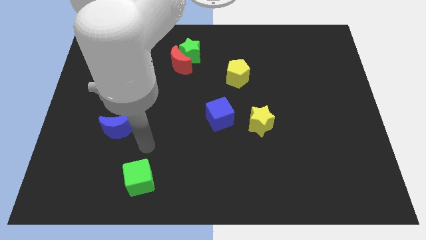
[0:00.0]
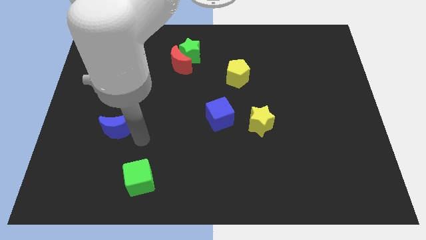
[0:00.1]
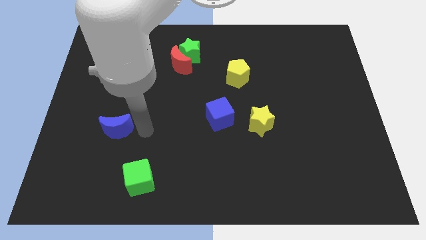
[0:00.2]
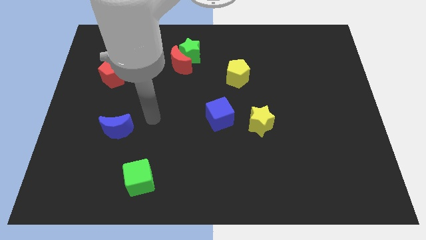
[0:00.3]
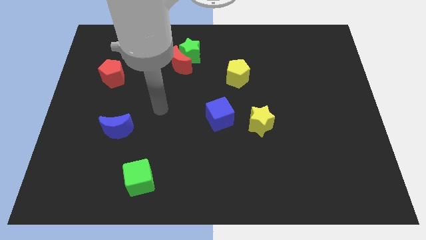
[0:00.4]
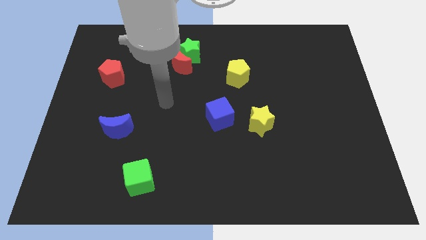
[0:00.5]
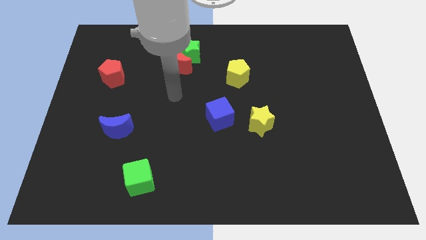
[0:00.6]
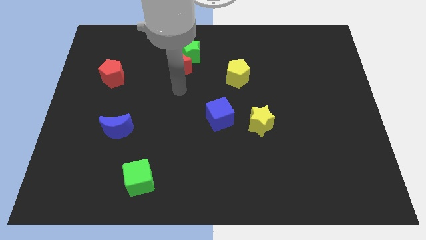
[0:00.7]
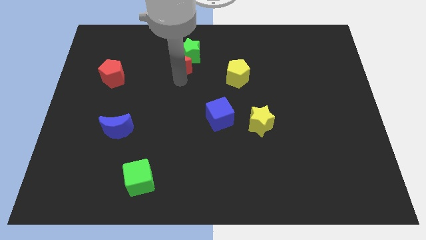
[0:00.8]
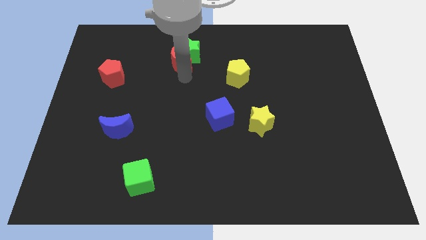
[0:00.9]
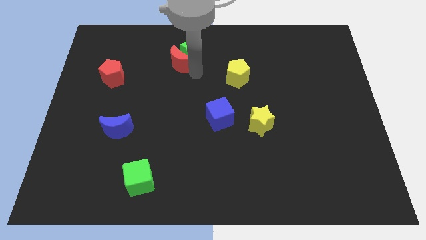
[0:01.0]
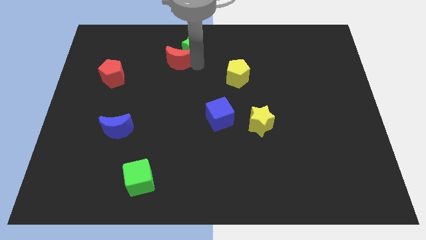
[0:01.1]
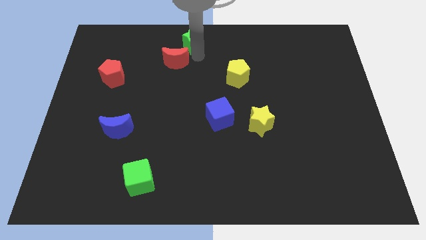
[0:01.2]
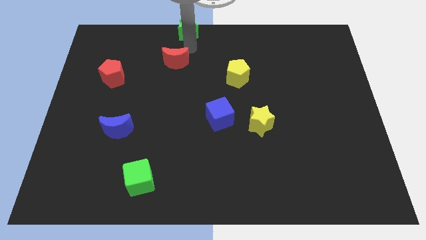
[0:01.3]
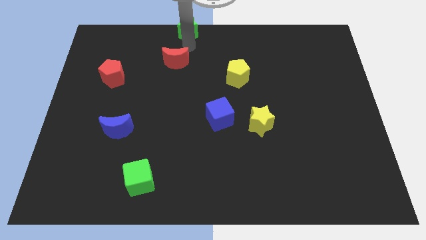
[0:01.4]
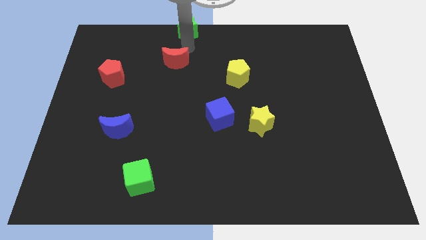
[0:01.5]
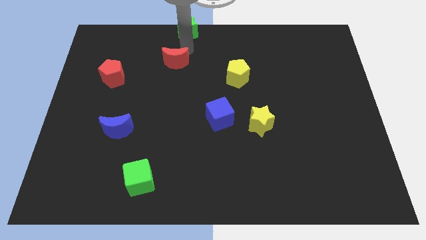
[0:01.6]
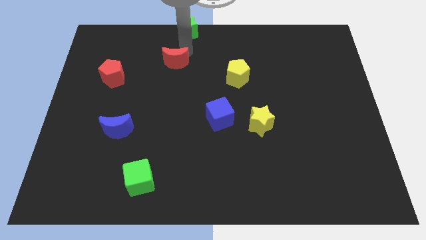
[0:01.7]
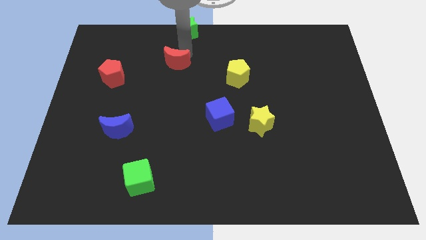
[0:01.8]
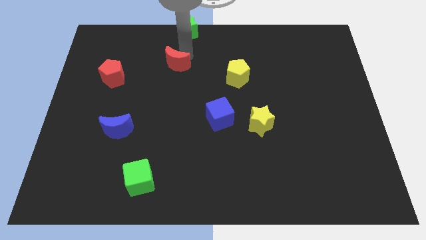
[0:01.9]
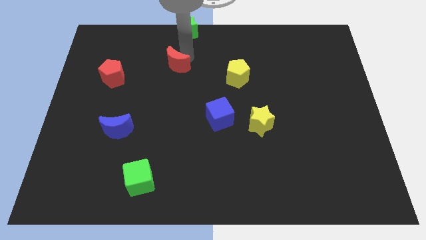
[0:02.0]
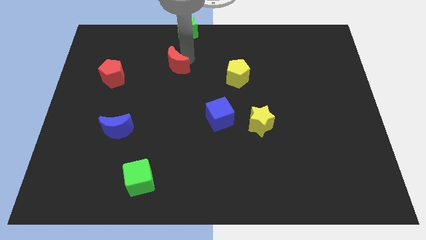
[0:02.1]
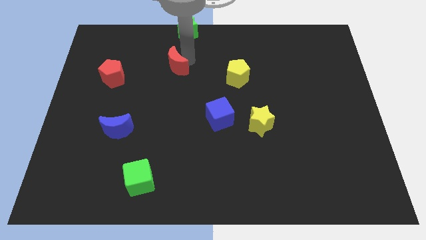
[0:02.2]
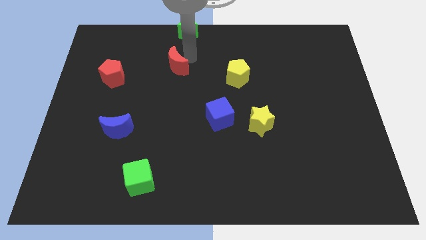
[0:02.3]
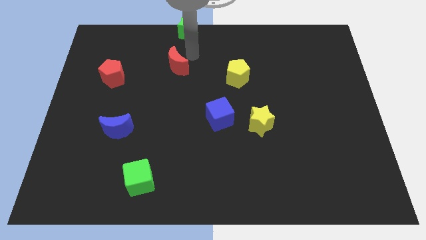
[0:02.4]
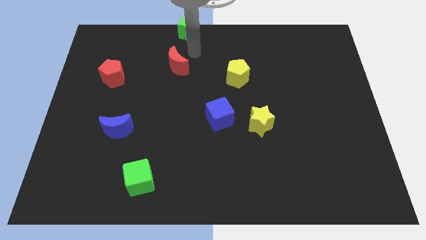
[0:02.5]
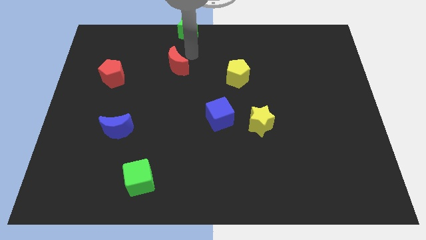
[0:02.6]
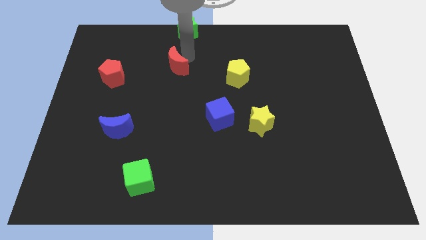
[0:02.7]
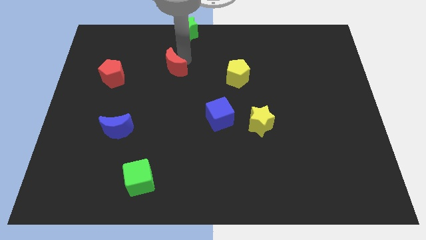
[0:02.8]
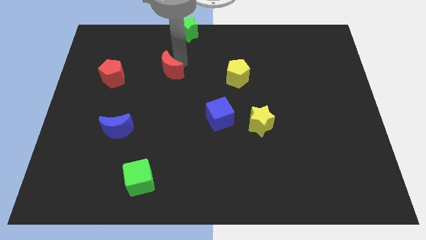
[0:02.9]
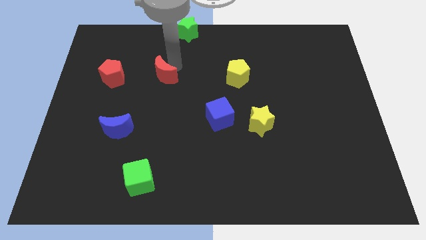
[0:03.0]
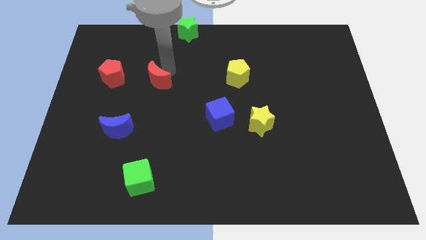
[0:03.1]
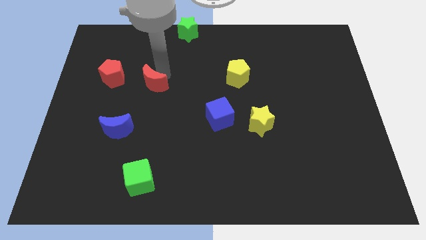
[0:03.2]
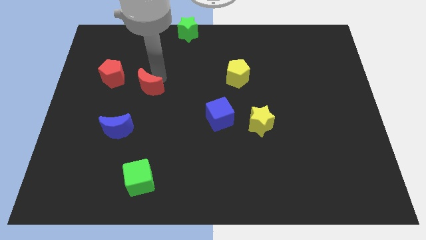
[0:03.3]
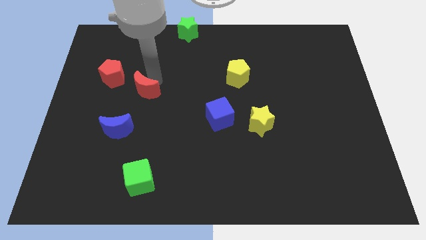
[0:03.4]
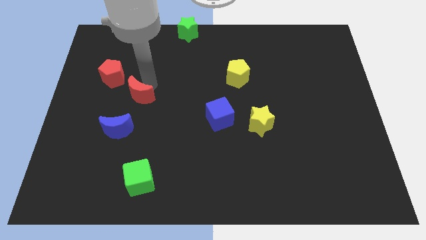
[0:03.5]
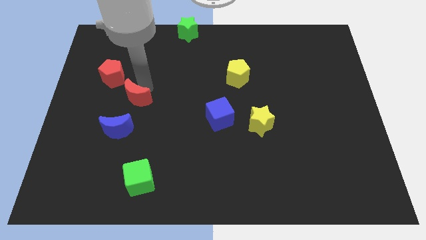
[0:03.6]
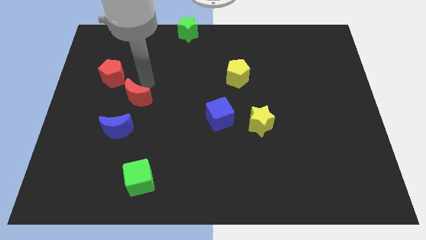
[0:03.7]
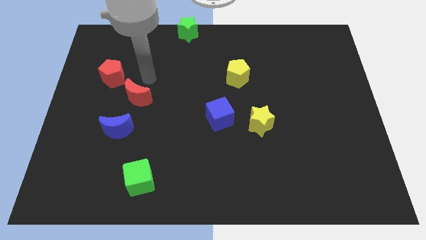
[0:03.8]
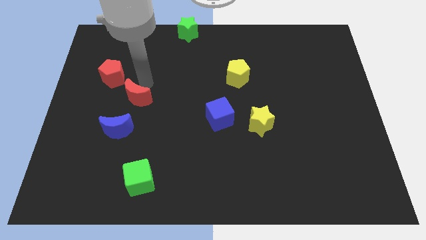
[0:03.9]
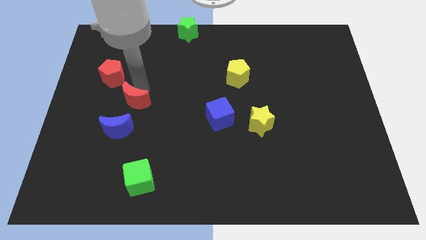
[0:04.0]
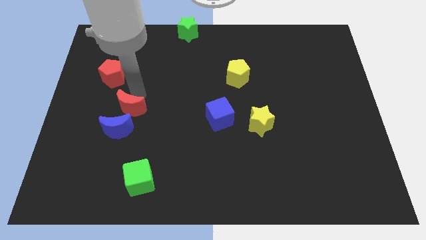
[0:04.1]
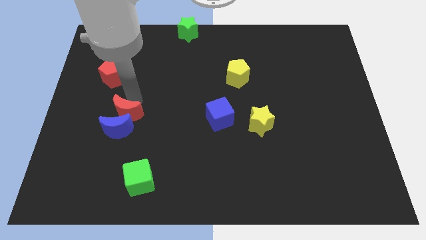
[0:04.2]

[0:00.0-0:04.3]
move the red moon towards the blue moon

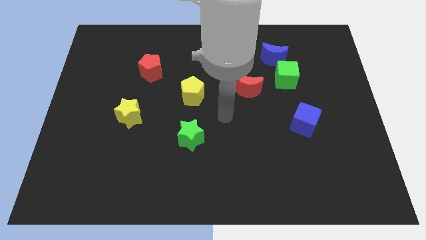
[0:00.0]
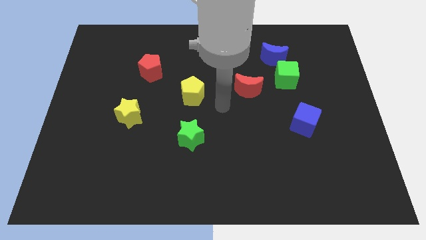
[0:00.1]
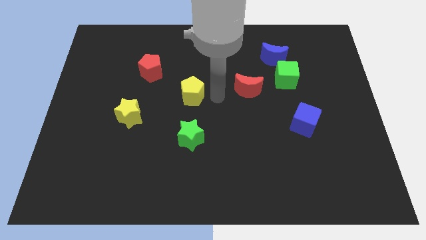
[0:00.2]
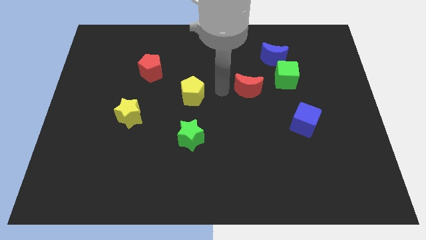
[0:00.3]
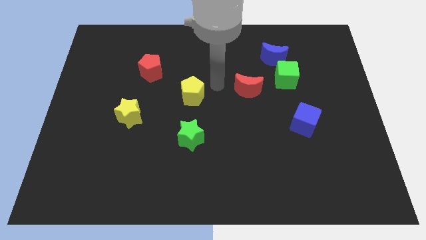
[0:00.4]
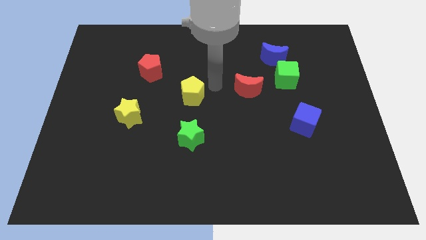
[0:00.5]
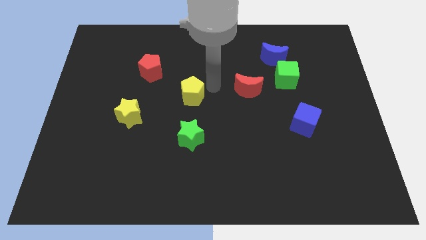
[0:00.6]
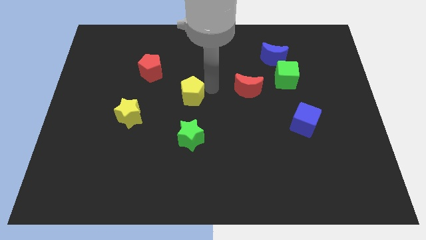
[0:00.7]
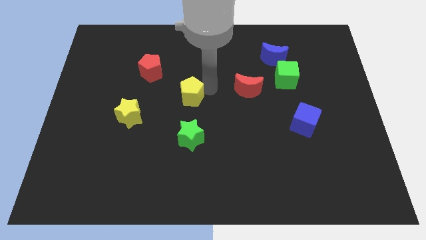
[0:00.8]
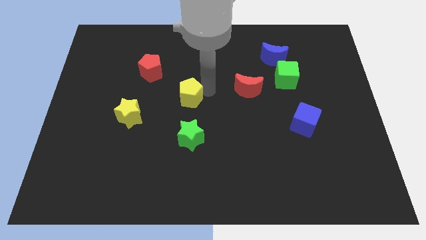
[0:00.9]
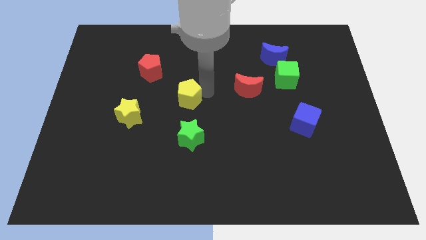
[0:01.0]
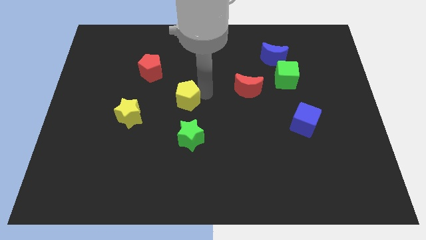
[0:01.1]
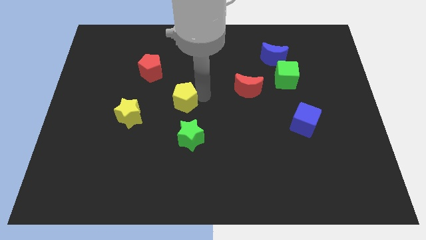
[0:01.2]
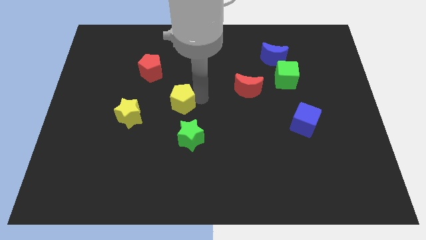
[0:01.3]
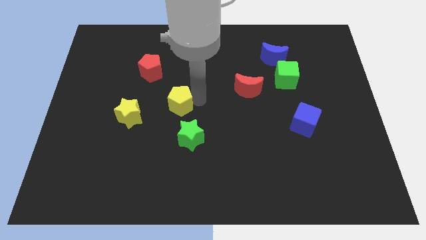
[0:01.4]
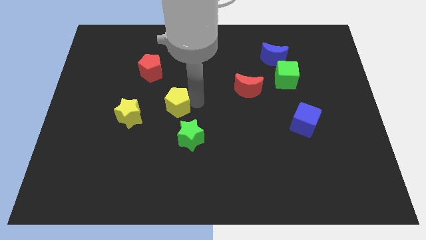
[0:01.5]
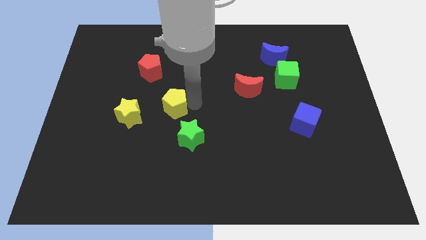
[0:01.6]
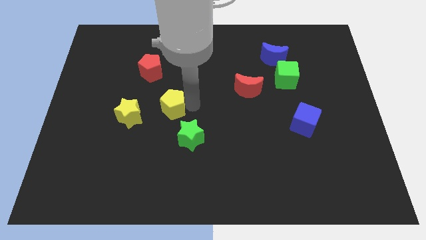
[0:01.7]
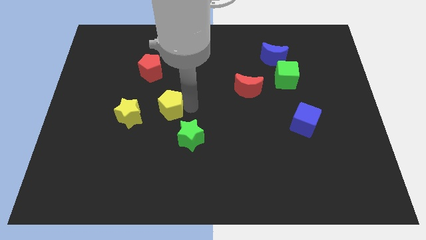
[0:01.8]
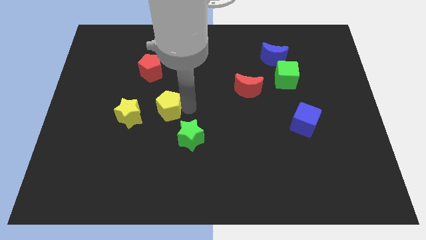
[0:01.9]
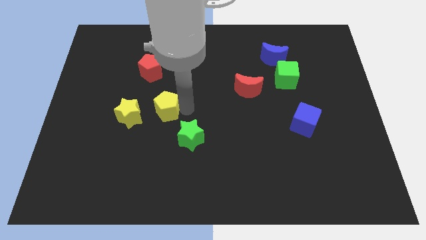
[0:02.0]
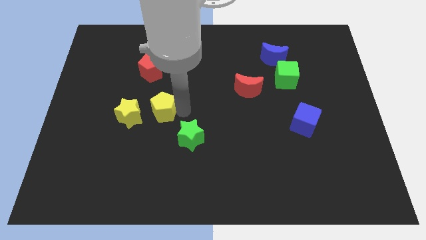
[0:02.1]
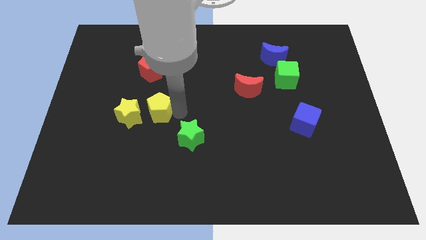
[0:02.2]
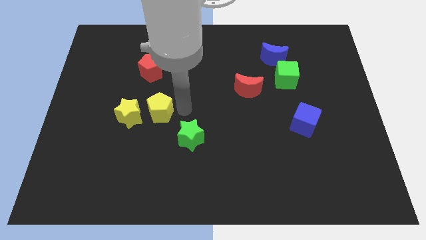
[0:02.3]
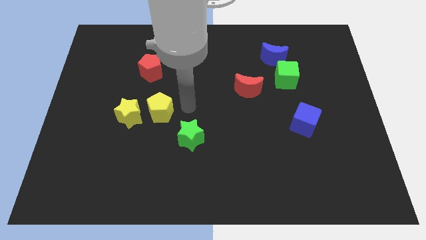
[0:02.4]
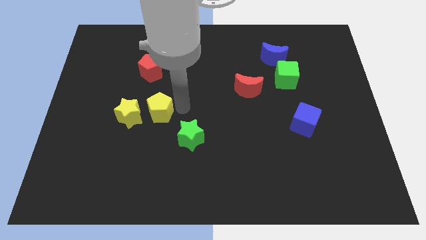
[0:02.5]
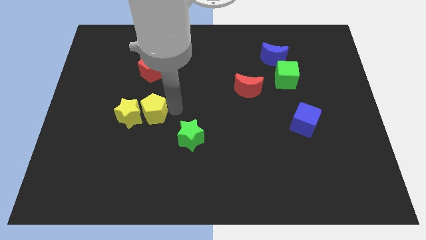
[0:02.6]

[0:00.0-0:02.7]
move the yellow pentagon next to the yellow star

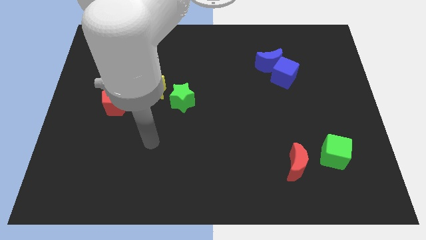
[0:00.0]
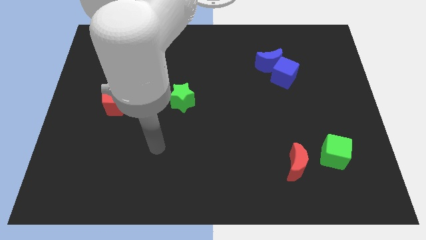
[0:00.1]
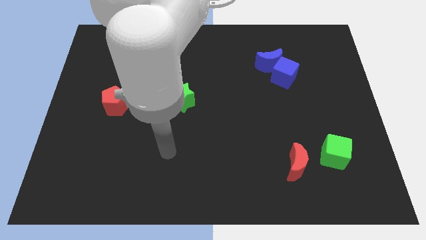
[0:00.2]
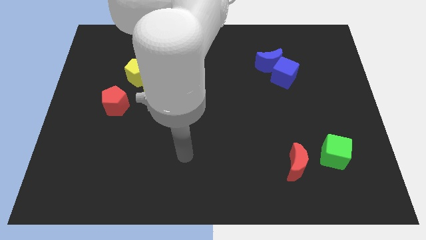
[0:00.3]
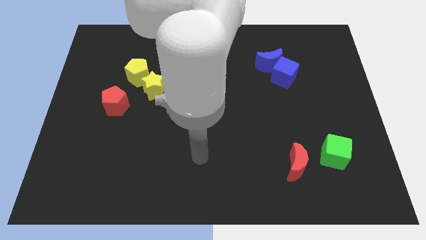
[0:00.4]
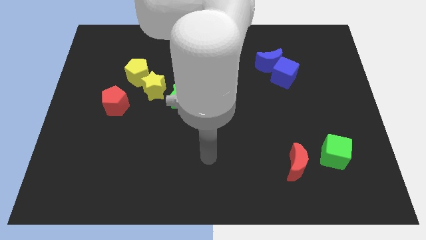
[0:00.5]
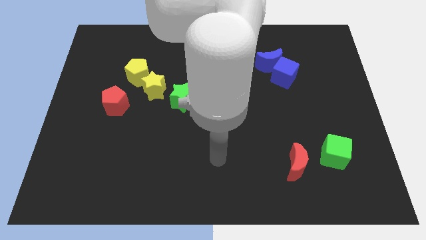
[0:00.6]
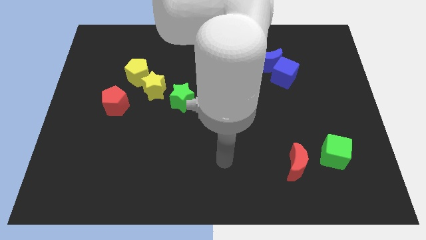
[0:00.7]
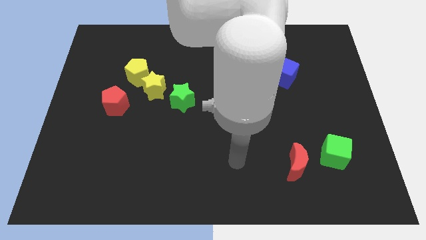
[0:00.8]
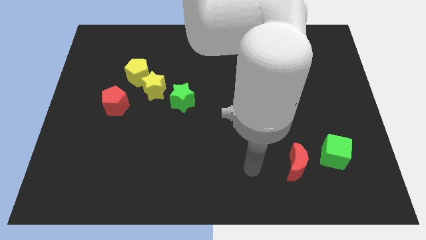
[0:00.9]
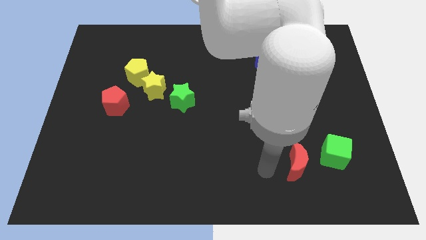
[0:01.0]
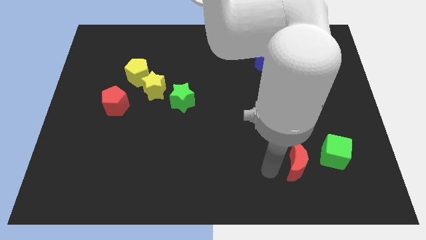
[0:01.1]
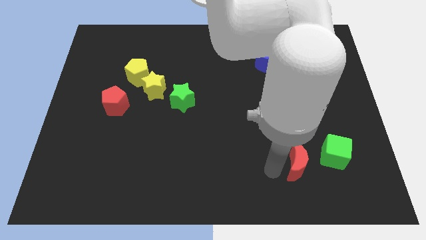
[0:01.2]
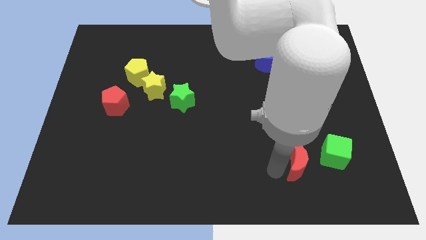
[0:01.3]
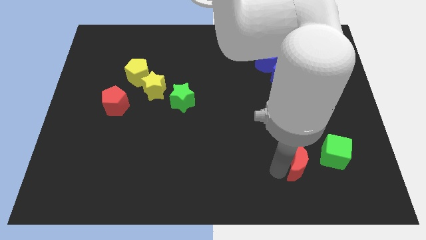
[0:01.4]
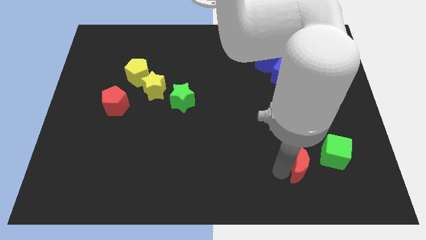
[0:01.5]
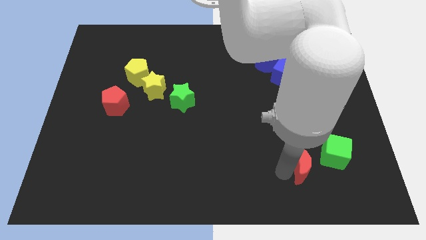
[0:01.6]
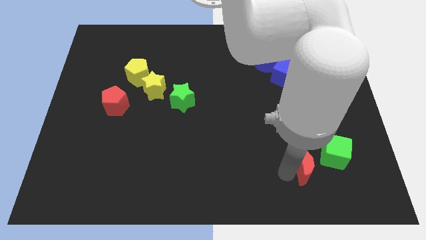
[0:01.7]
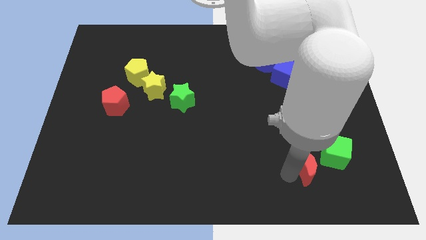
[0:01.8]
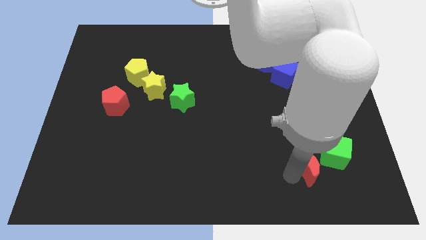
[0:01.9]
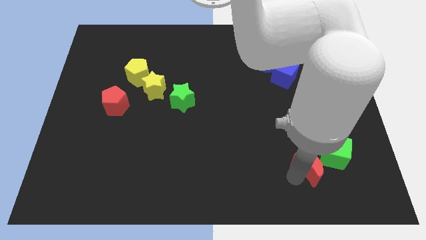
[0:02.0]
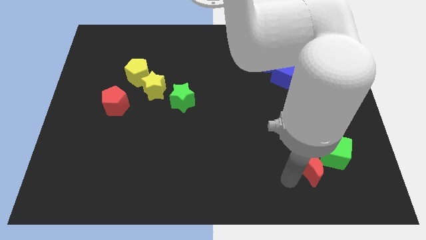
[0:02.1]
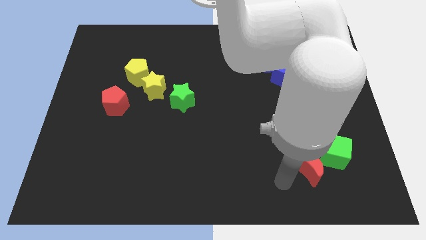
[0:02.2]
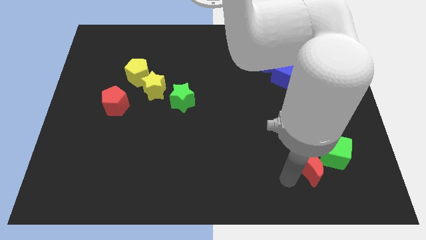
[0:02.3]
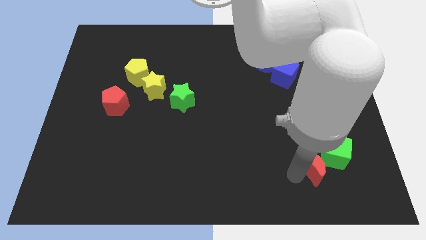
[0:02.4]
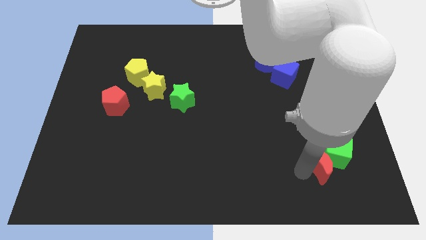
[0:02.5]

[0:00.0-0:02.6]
slide the red moon to the green cube
